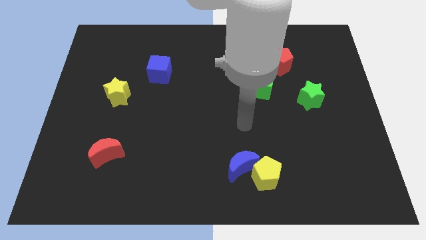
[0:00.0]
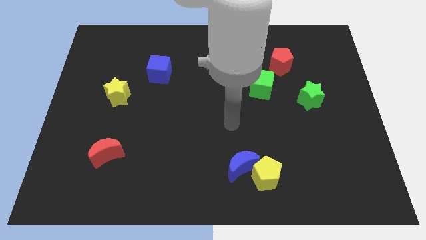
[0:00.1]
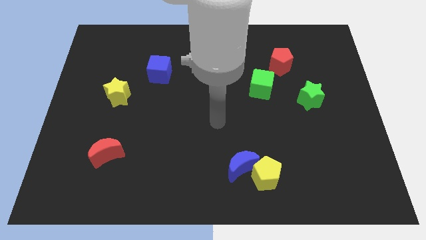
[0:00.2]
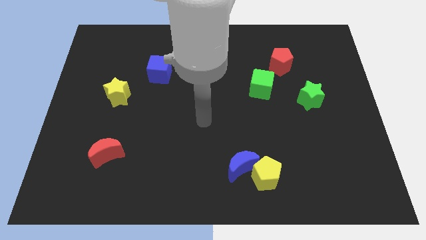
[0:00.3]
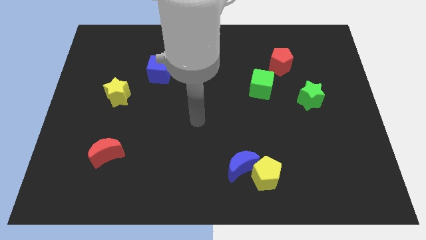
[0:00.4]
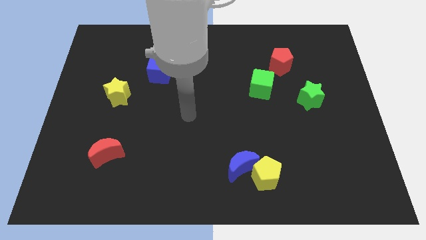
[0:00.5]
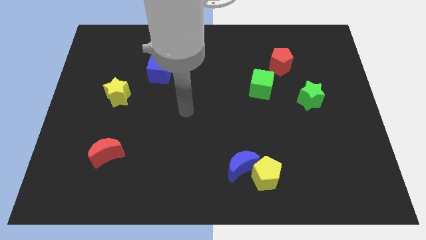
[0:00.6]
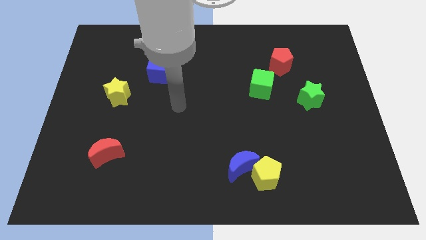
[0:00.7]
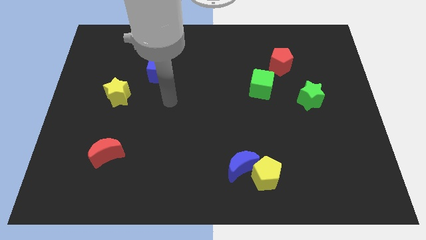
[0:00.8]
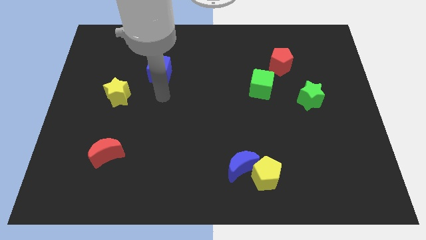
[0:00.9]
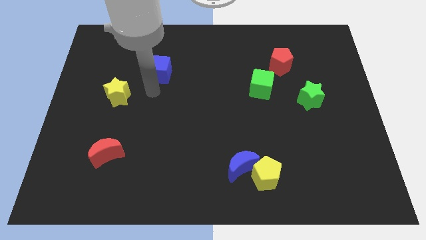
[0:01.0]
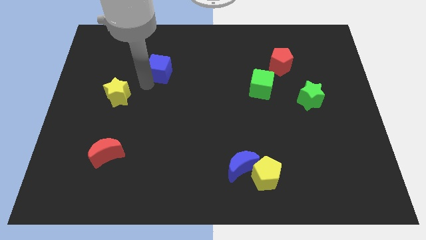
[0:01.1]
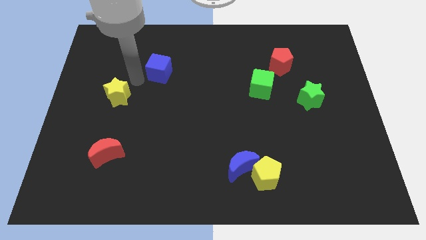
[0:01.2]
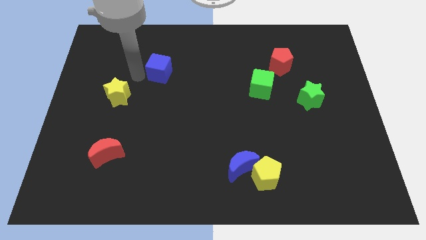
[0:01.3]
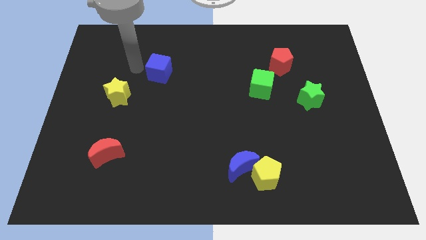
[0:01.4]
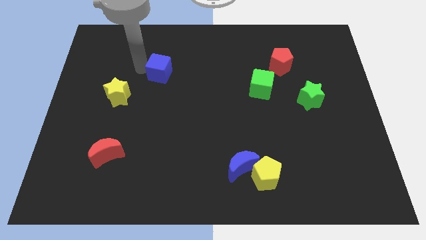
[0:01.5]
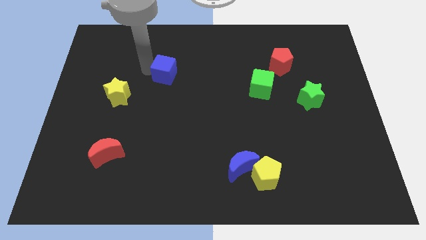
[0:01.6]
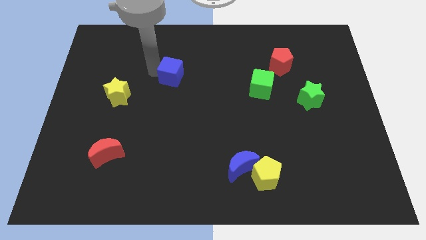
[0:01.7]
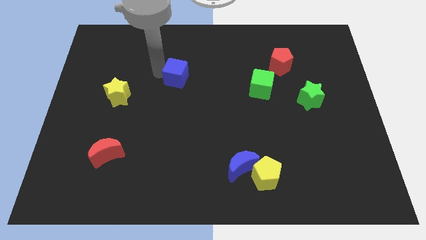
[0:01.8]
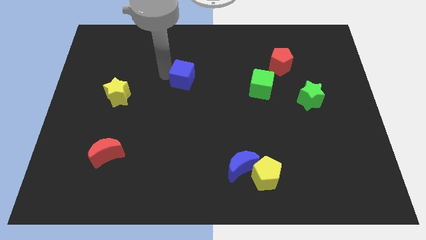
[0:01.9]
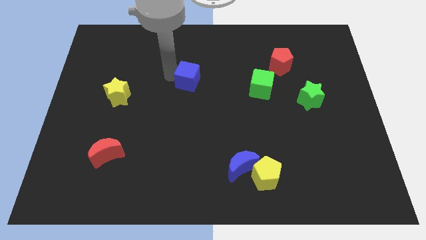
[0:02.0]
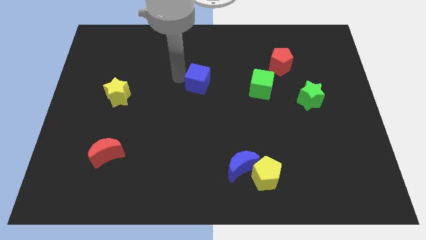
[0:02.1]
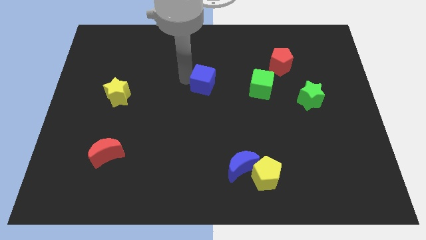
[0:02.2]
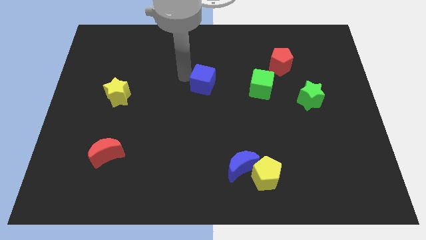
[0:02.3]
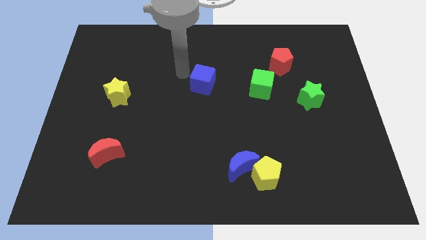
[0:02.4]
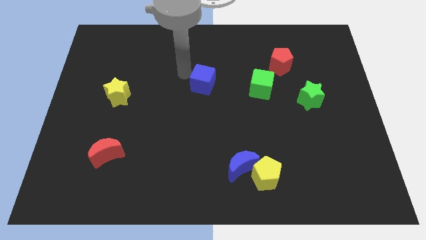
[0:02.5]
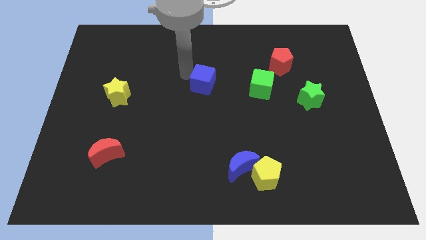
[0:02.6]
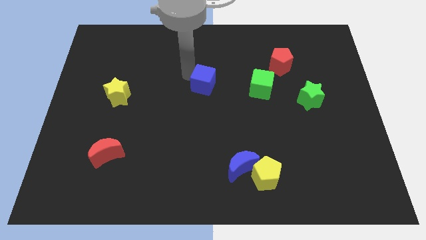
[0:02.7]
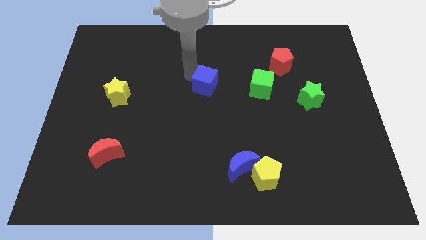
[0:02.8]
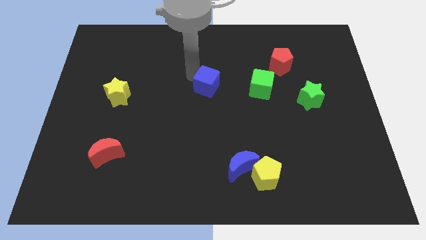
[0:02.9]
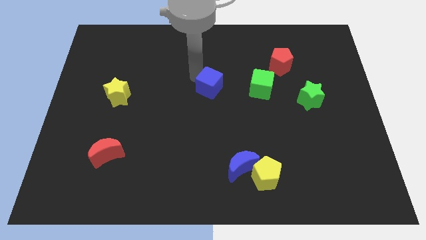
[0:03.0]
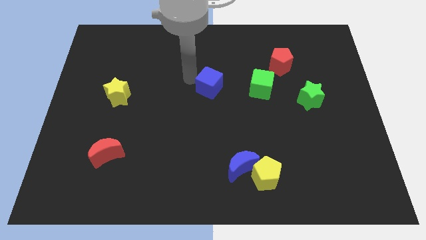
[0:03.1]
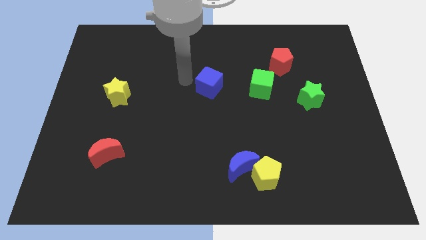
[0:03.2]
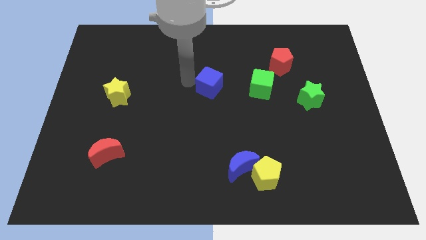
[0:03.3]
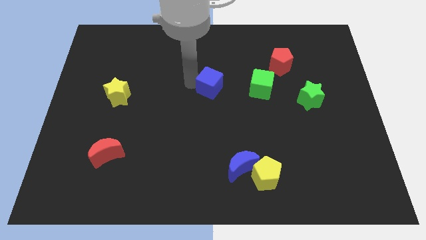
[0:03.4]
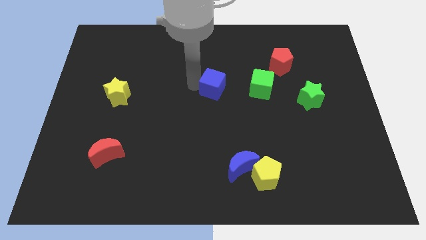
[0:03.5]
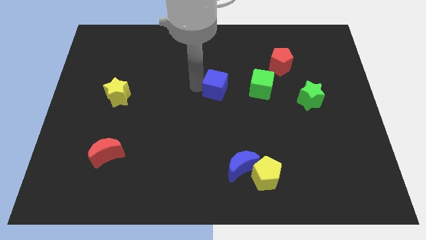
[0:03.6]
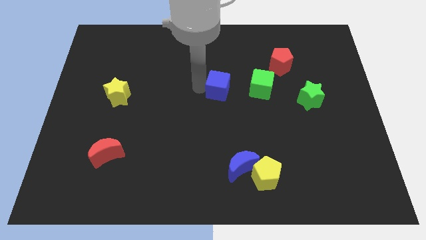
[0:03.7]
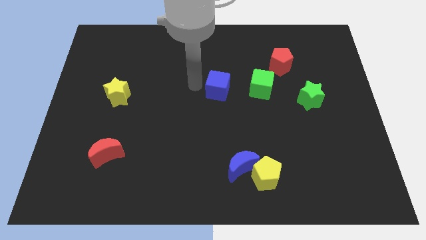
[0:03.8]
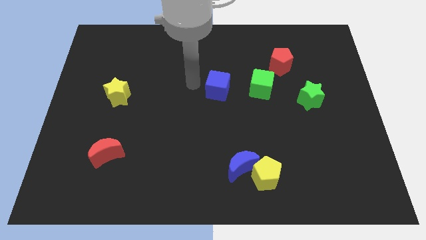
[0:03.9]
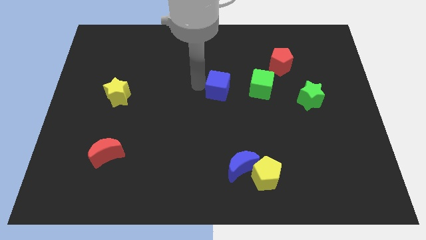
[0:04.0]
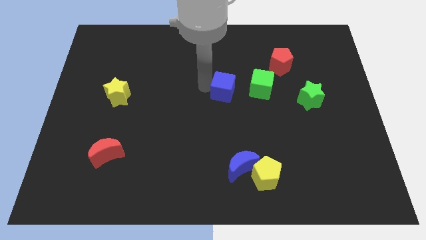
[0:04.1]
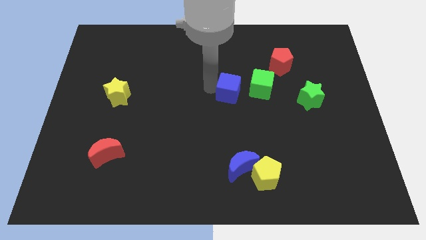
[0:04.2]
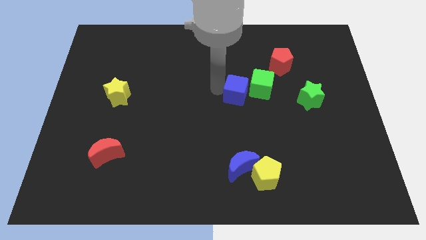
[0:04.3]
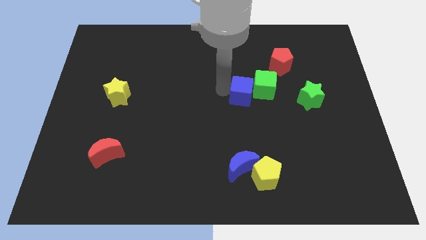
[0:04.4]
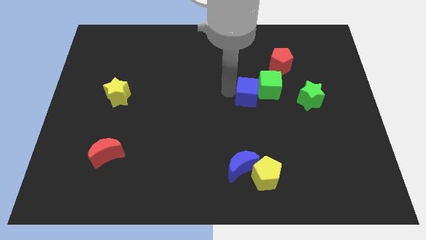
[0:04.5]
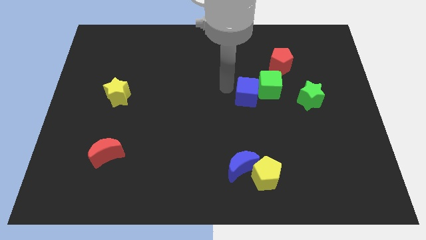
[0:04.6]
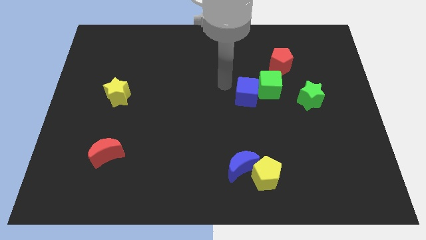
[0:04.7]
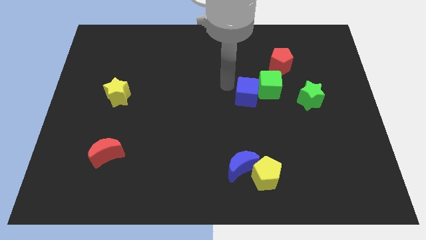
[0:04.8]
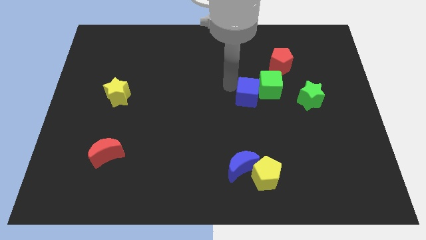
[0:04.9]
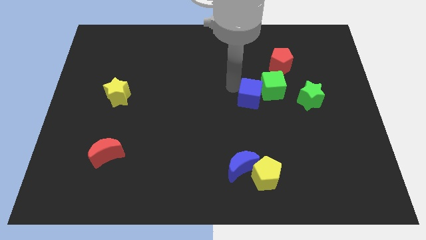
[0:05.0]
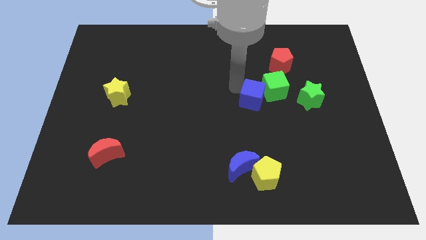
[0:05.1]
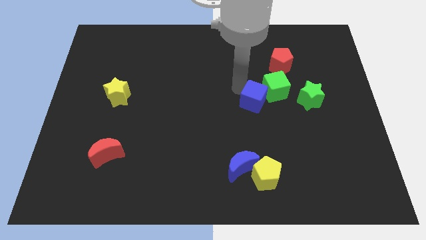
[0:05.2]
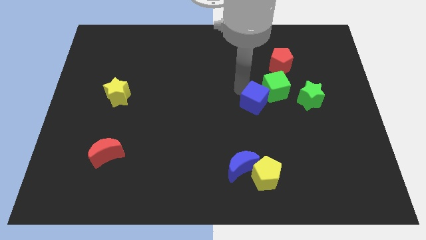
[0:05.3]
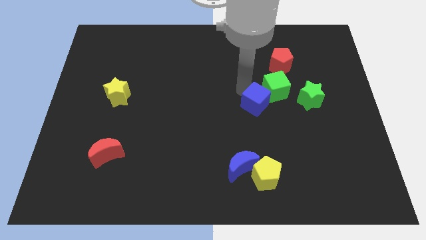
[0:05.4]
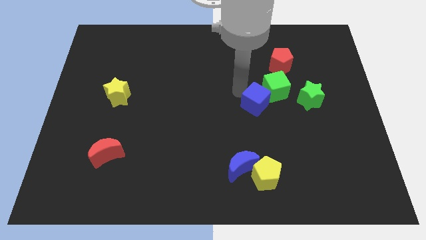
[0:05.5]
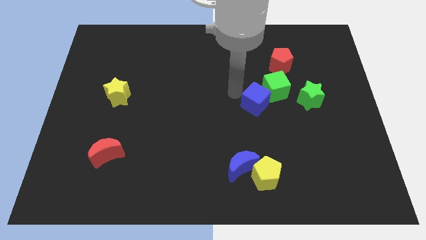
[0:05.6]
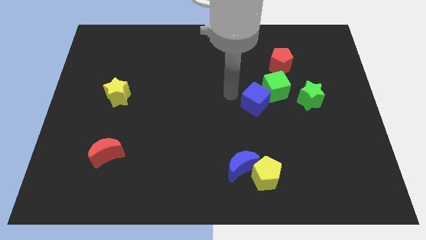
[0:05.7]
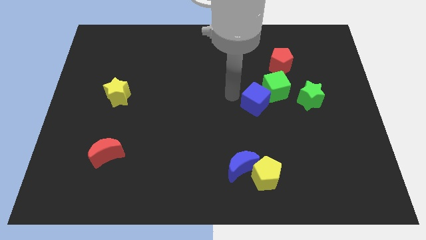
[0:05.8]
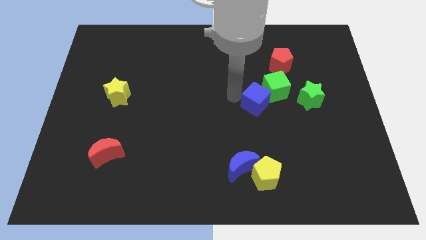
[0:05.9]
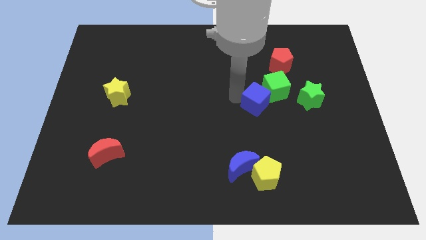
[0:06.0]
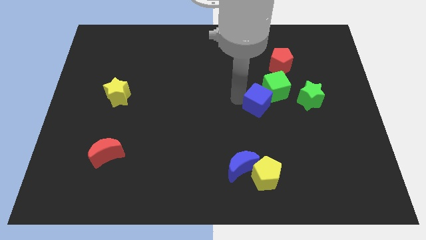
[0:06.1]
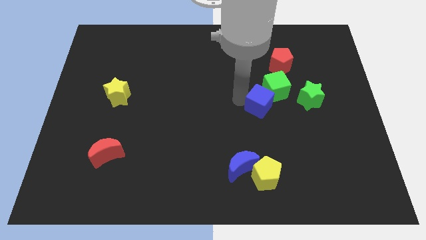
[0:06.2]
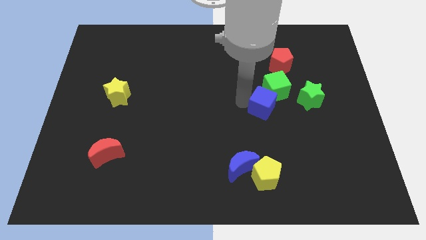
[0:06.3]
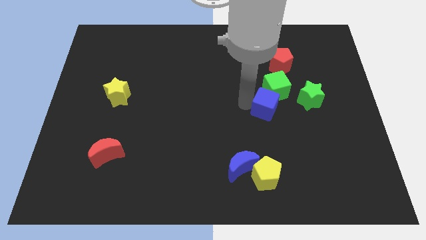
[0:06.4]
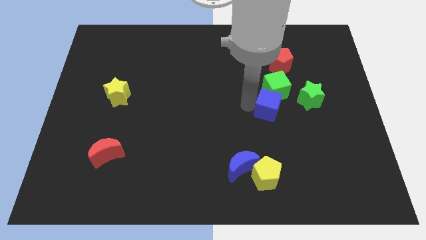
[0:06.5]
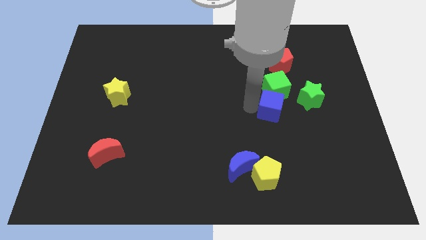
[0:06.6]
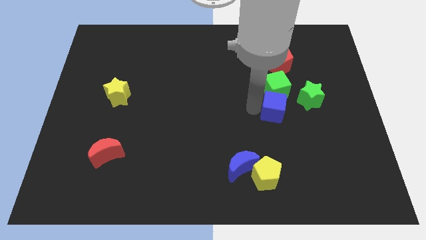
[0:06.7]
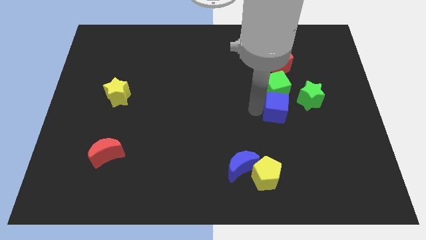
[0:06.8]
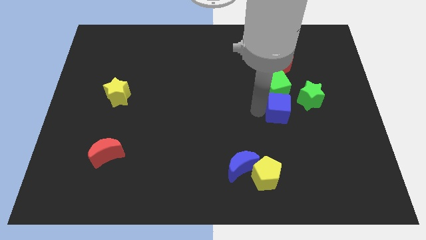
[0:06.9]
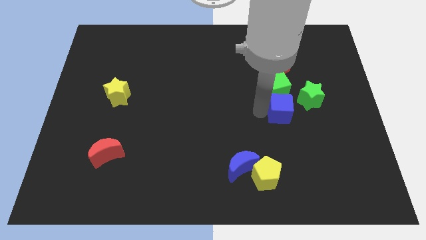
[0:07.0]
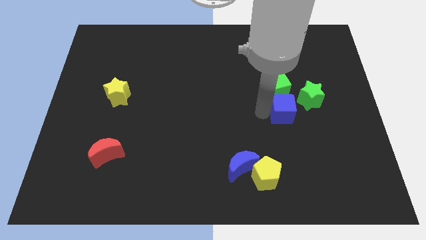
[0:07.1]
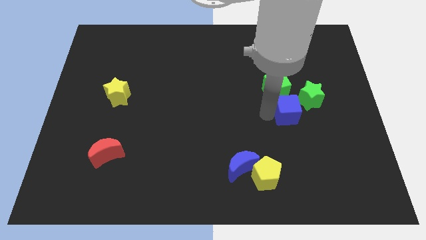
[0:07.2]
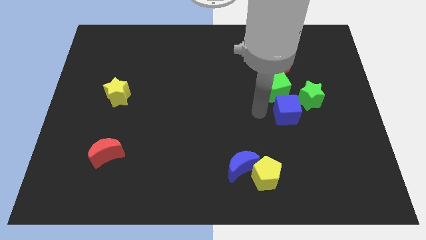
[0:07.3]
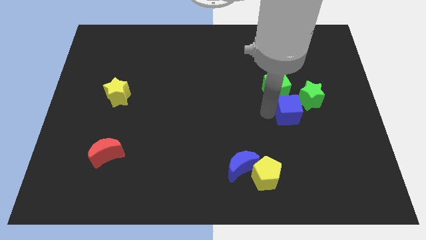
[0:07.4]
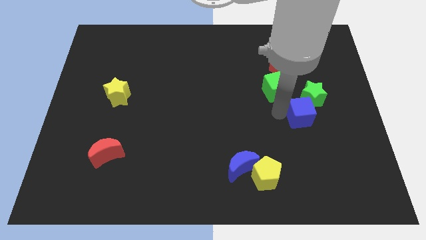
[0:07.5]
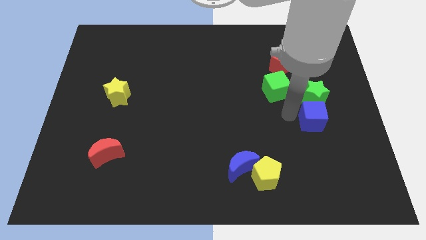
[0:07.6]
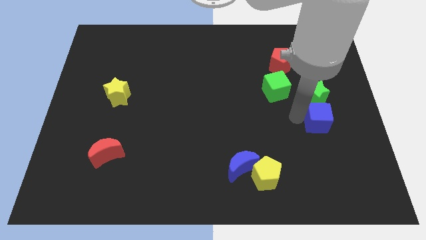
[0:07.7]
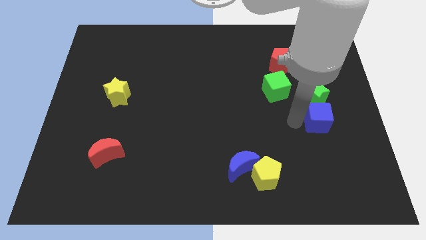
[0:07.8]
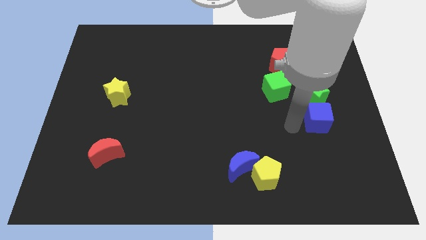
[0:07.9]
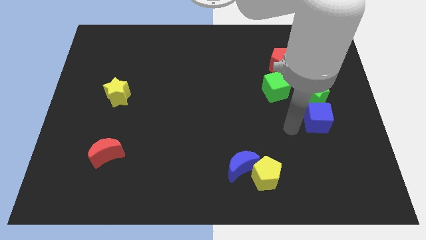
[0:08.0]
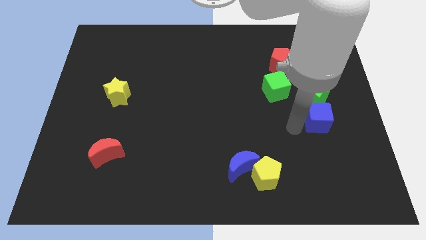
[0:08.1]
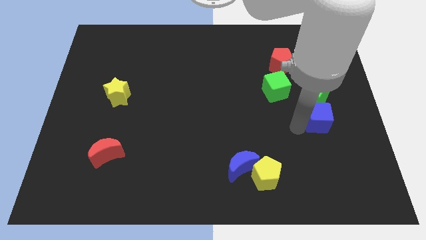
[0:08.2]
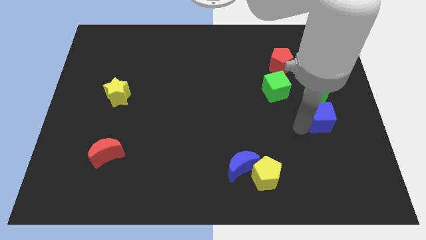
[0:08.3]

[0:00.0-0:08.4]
push the blue cube diagonally down and to the right of the green star
